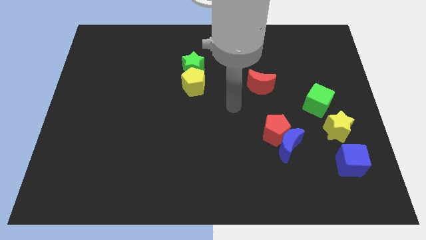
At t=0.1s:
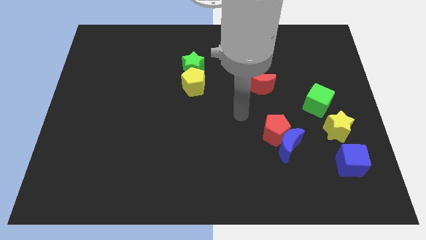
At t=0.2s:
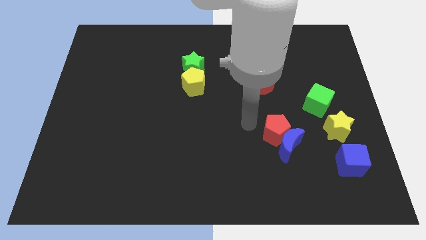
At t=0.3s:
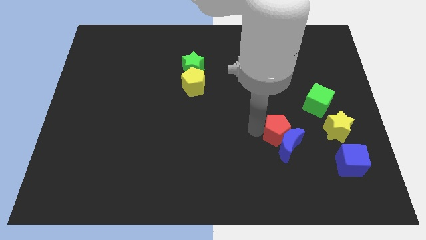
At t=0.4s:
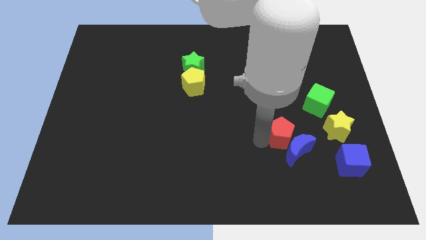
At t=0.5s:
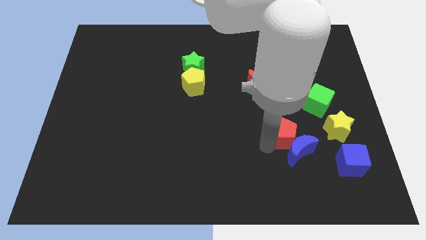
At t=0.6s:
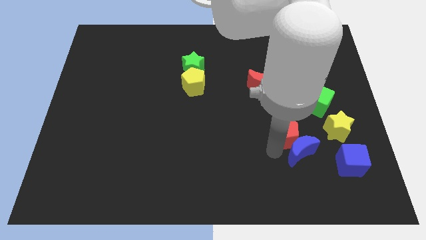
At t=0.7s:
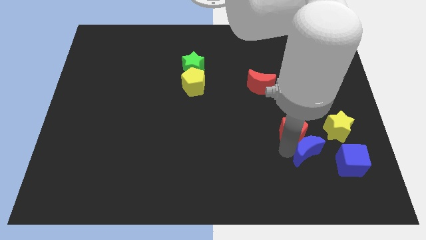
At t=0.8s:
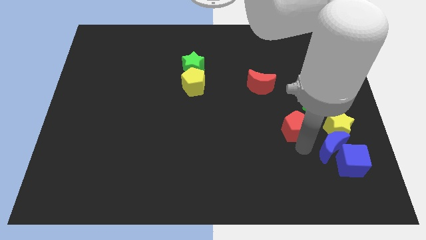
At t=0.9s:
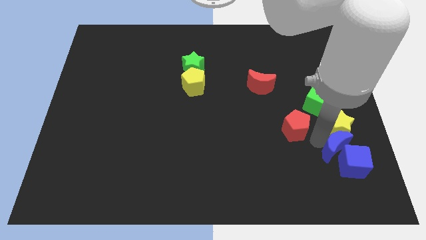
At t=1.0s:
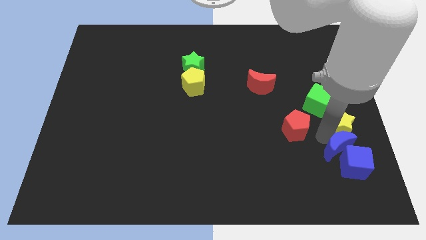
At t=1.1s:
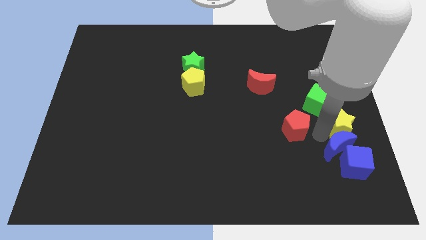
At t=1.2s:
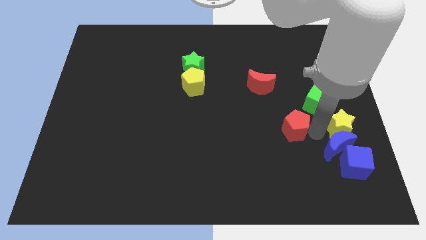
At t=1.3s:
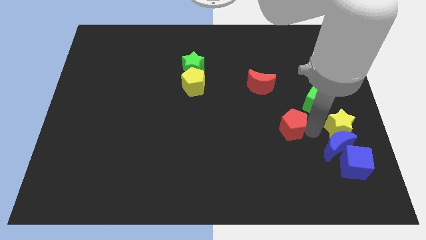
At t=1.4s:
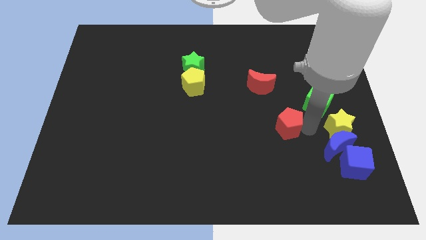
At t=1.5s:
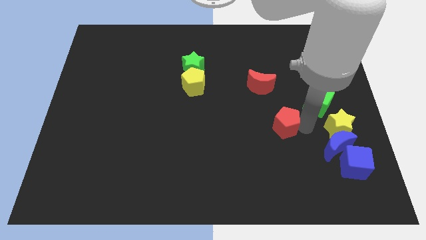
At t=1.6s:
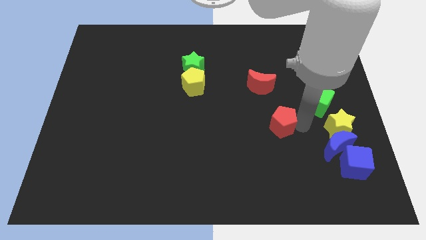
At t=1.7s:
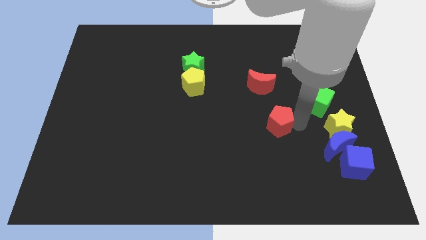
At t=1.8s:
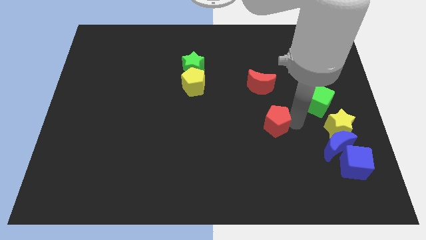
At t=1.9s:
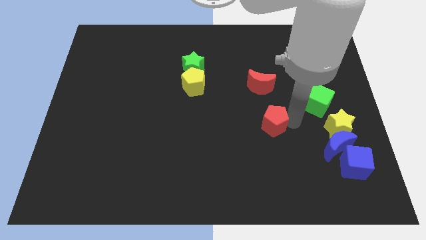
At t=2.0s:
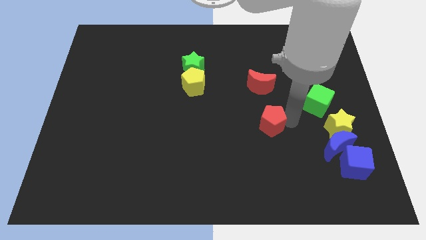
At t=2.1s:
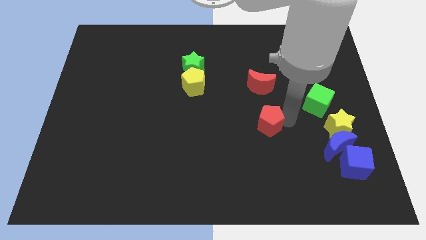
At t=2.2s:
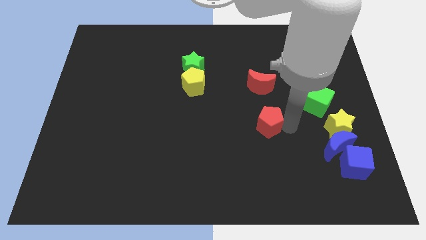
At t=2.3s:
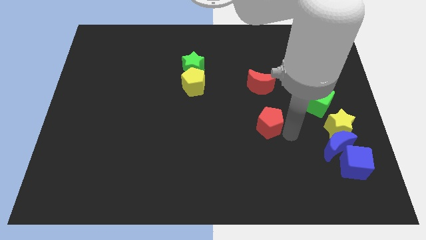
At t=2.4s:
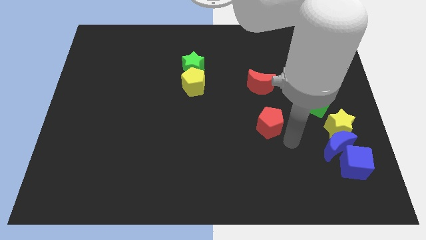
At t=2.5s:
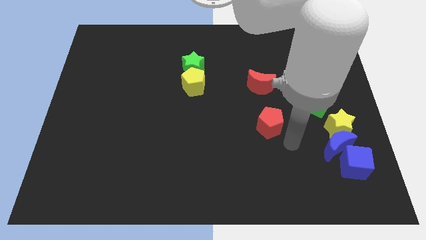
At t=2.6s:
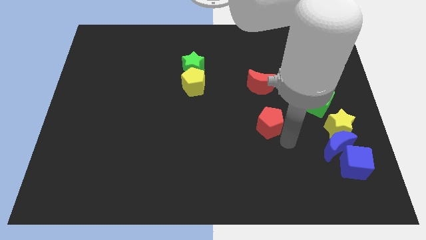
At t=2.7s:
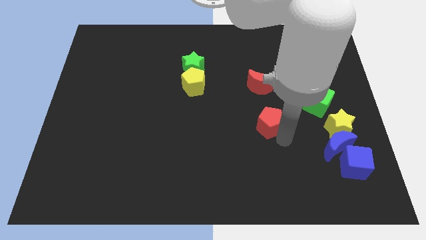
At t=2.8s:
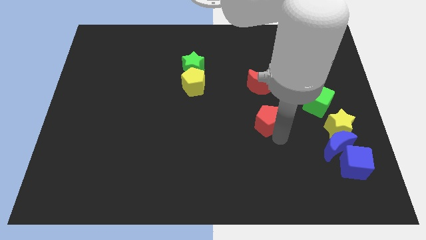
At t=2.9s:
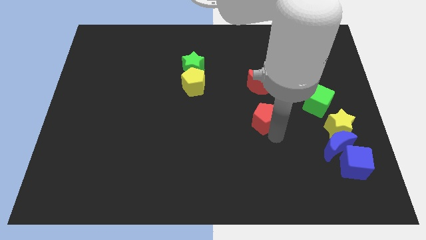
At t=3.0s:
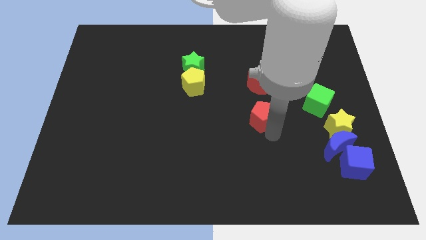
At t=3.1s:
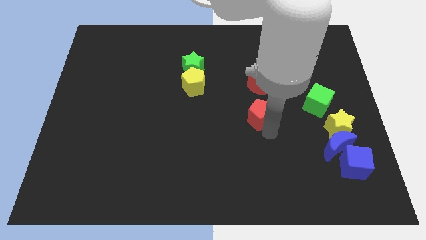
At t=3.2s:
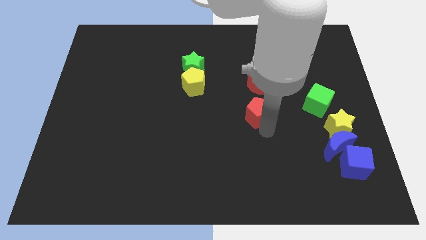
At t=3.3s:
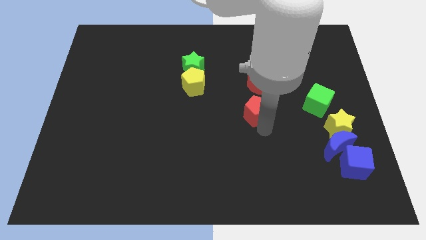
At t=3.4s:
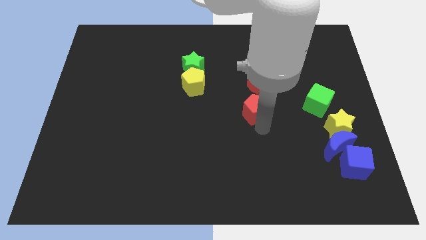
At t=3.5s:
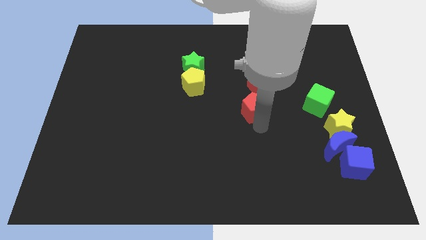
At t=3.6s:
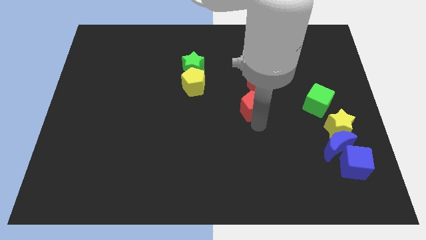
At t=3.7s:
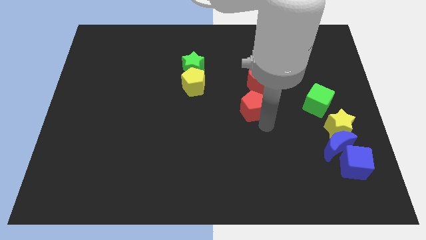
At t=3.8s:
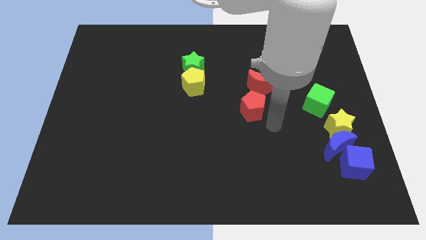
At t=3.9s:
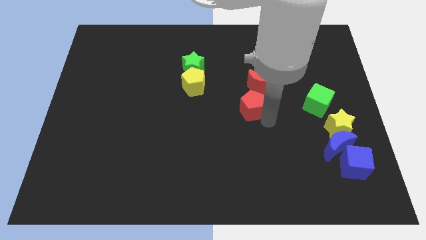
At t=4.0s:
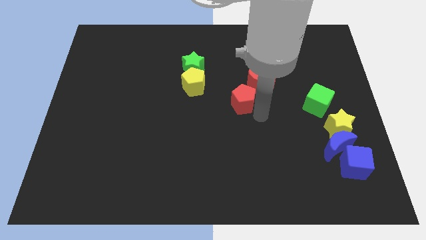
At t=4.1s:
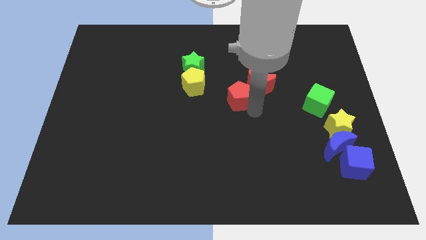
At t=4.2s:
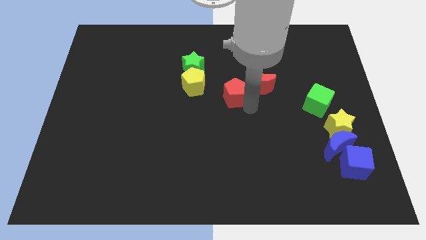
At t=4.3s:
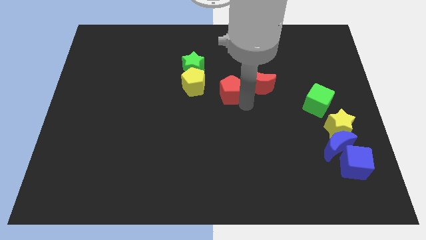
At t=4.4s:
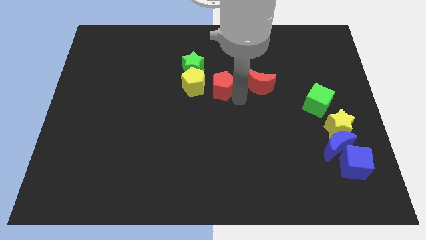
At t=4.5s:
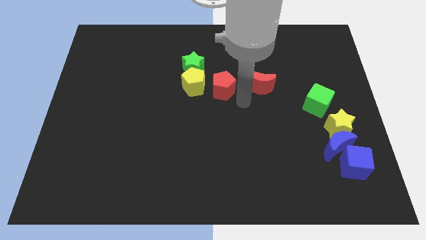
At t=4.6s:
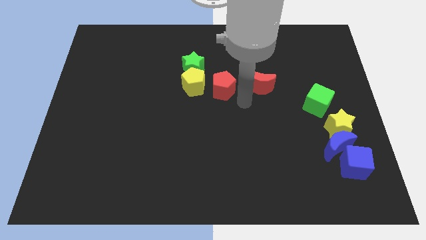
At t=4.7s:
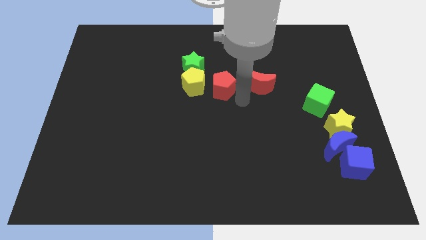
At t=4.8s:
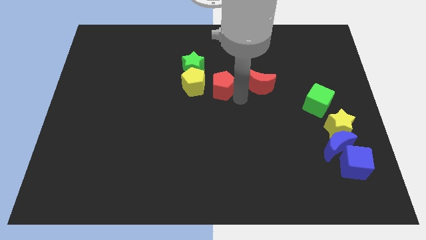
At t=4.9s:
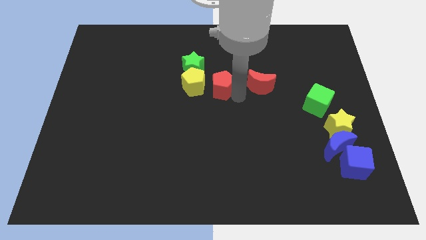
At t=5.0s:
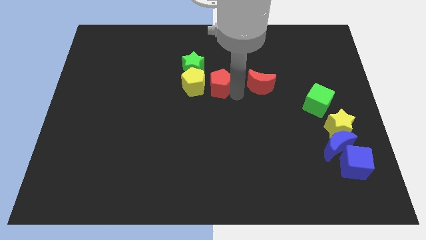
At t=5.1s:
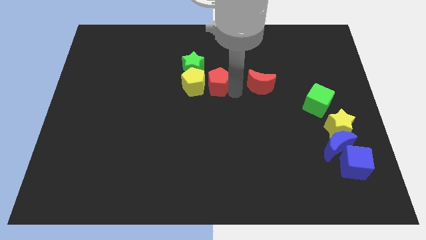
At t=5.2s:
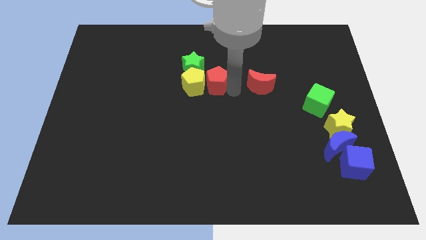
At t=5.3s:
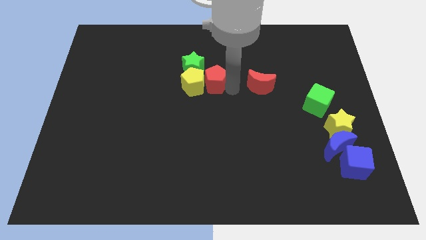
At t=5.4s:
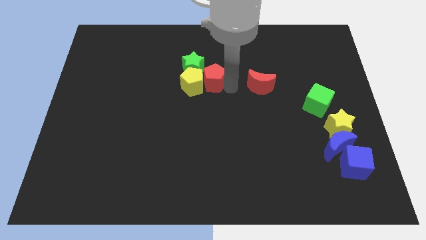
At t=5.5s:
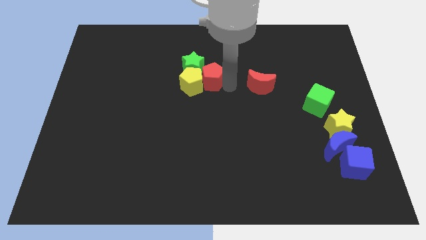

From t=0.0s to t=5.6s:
move the red pentagon next to the green star

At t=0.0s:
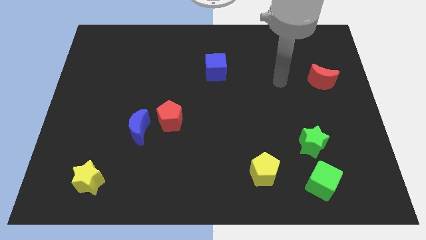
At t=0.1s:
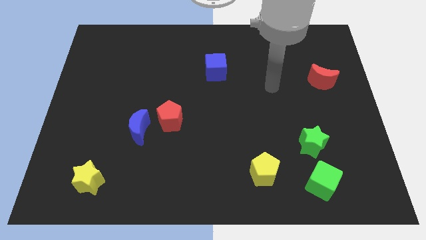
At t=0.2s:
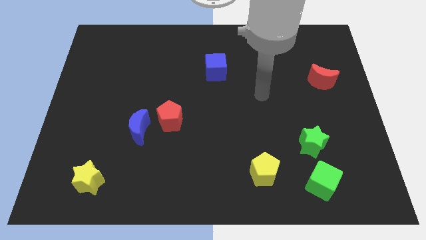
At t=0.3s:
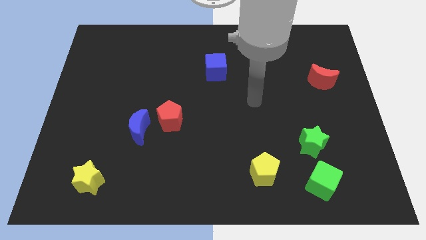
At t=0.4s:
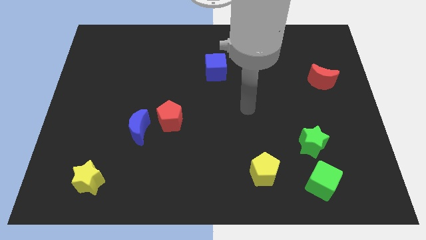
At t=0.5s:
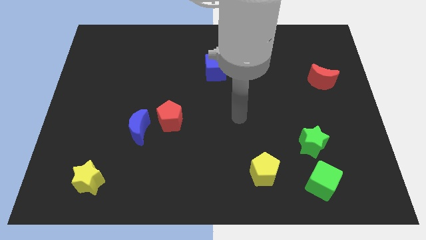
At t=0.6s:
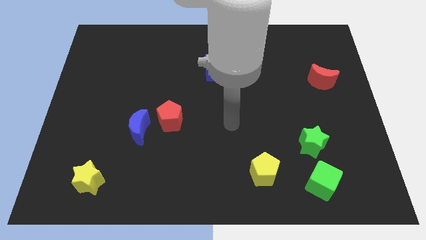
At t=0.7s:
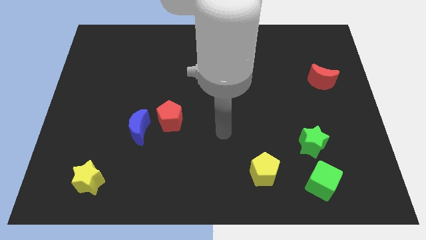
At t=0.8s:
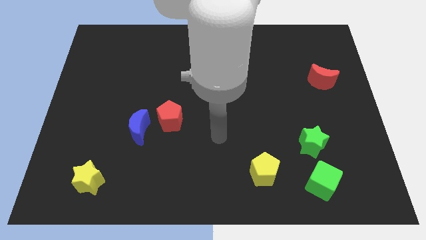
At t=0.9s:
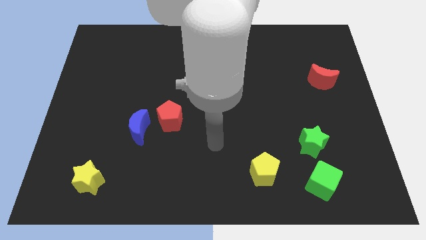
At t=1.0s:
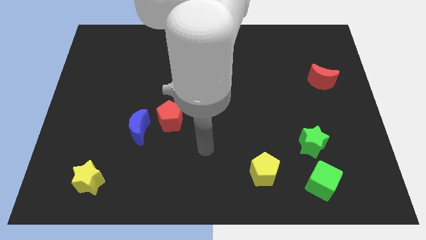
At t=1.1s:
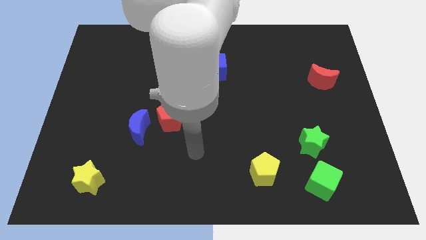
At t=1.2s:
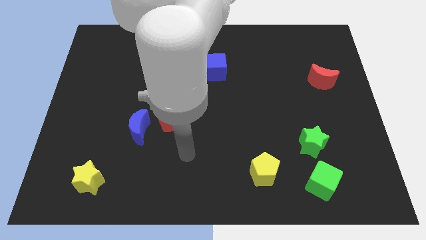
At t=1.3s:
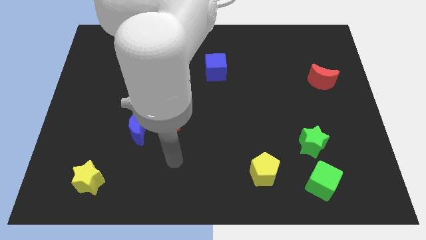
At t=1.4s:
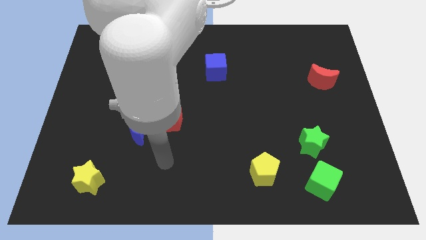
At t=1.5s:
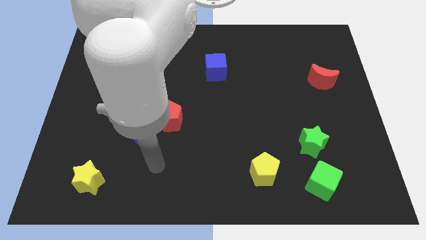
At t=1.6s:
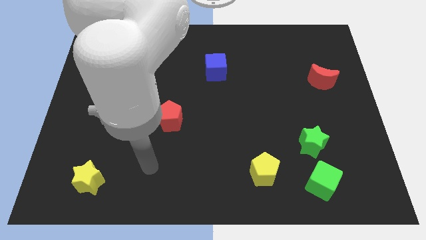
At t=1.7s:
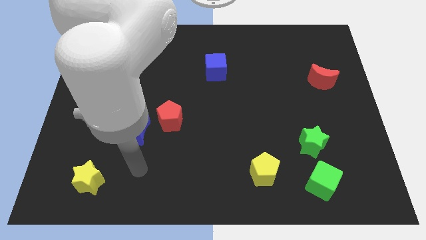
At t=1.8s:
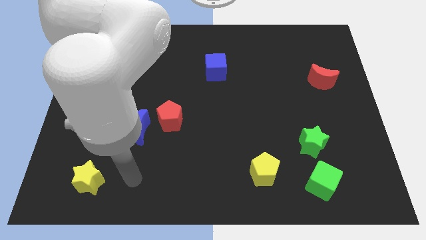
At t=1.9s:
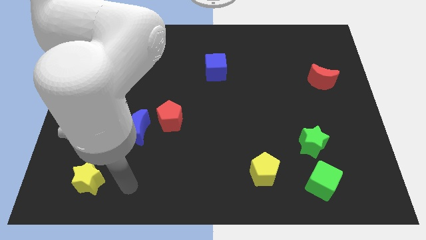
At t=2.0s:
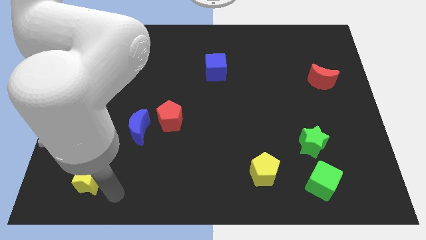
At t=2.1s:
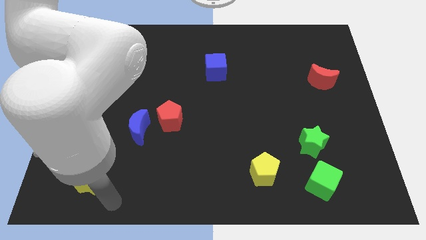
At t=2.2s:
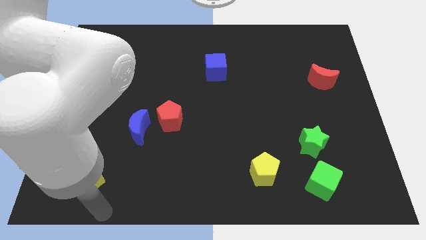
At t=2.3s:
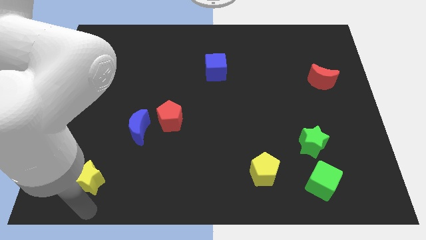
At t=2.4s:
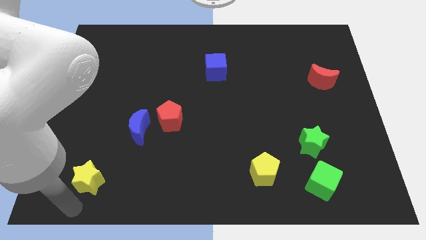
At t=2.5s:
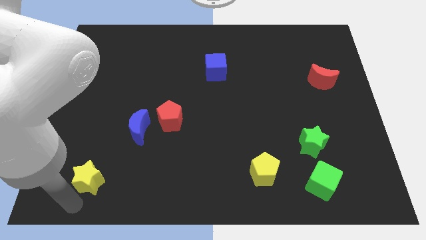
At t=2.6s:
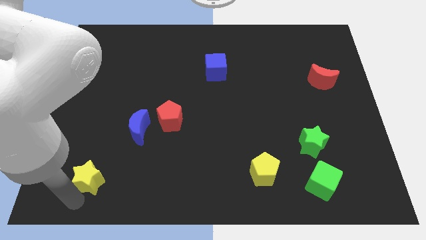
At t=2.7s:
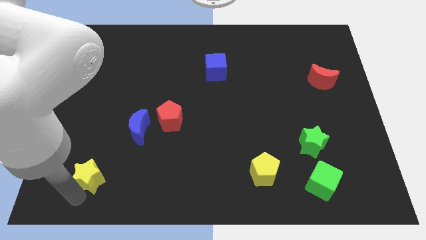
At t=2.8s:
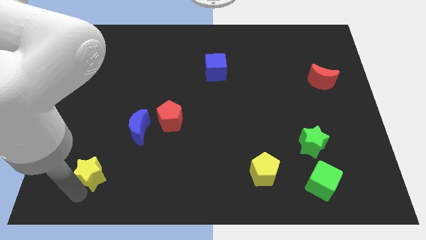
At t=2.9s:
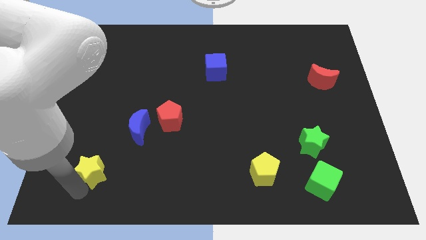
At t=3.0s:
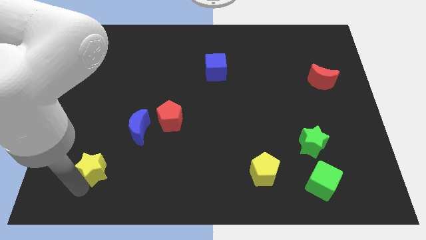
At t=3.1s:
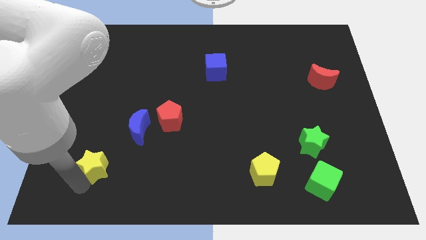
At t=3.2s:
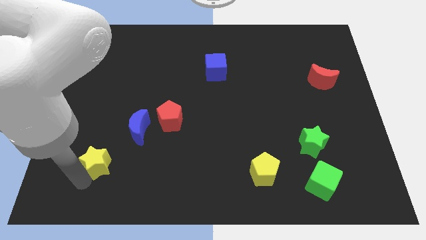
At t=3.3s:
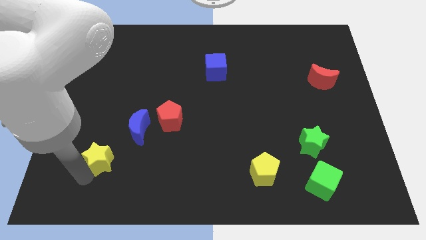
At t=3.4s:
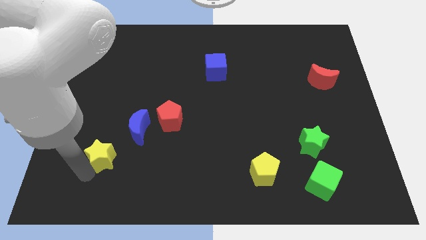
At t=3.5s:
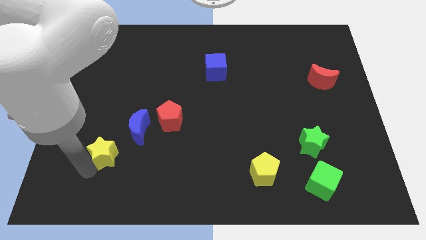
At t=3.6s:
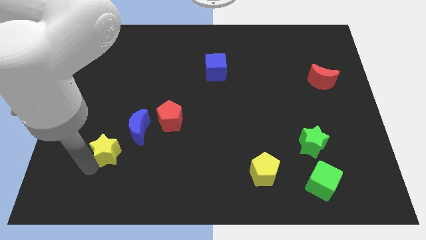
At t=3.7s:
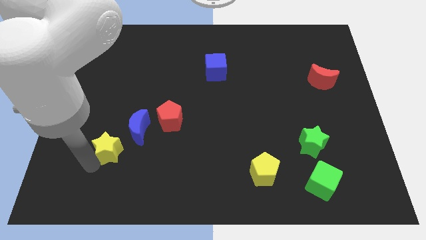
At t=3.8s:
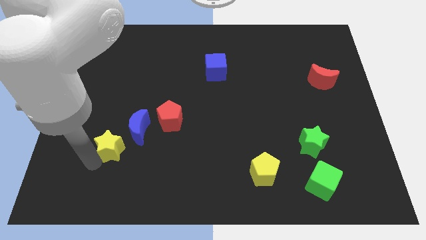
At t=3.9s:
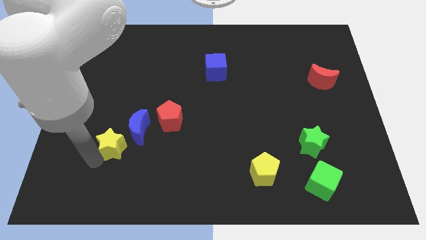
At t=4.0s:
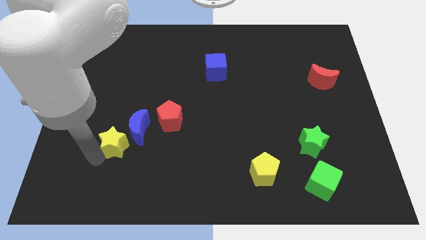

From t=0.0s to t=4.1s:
move the yellow star towards the blue moon
